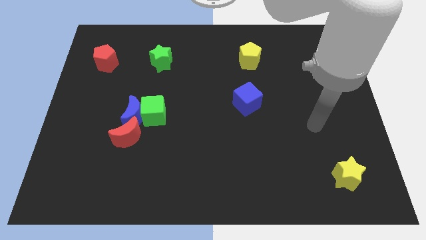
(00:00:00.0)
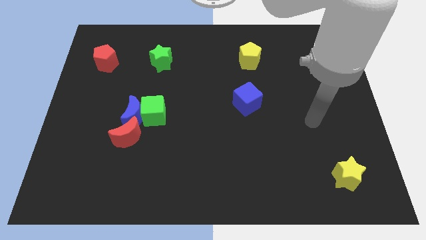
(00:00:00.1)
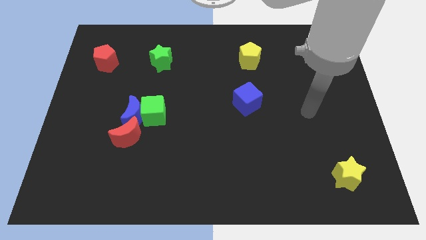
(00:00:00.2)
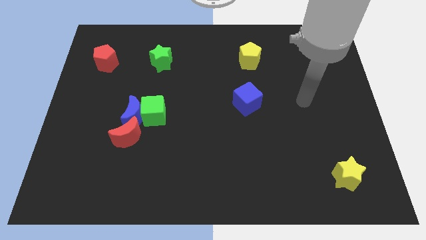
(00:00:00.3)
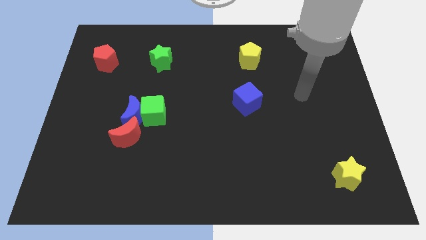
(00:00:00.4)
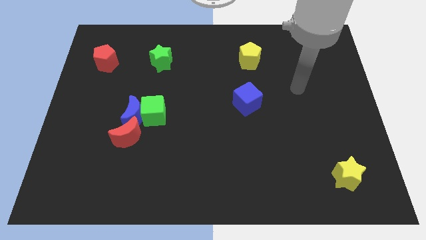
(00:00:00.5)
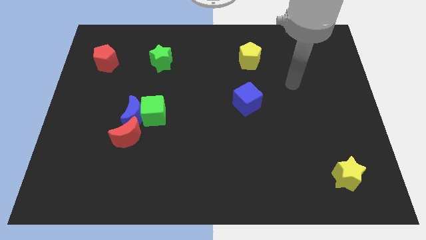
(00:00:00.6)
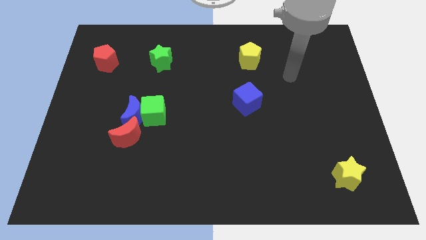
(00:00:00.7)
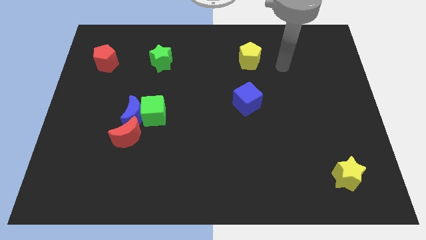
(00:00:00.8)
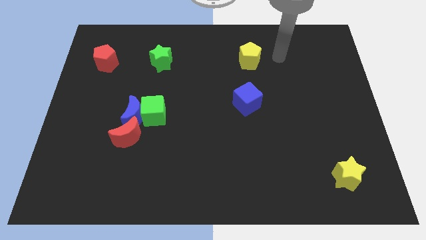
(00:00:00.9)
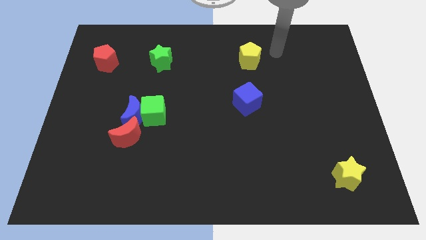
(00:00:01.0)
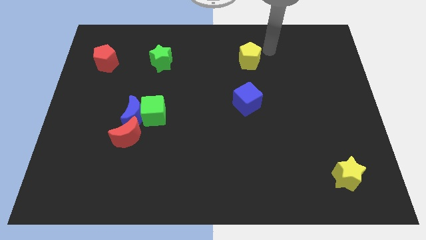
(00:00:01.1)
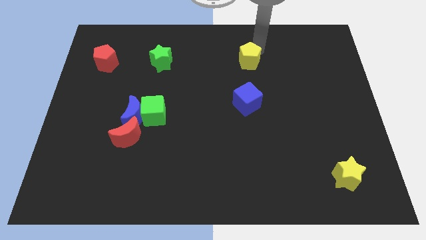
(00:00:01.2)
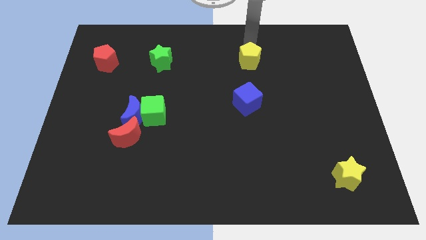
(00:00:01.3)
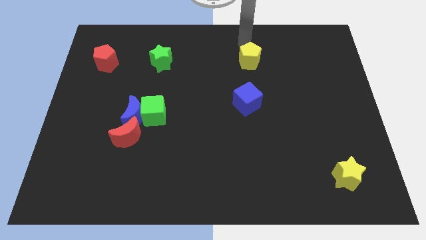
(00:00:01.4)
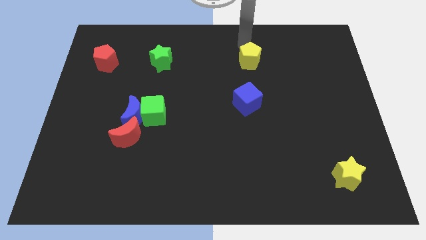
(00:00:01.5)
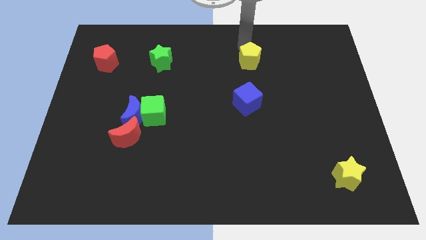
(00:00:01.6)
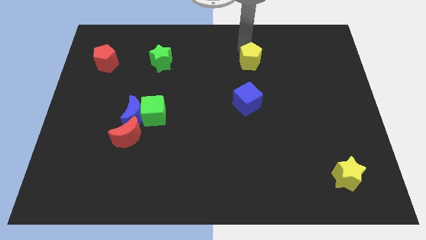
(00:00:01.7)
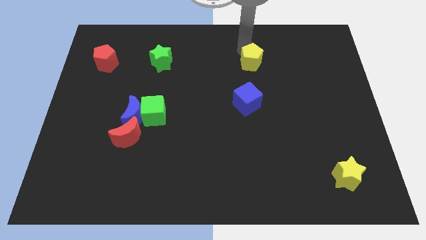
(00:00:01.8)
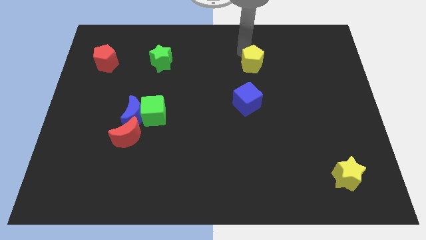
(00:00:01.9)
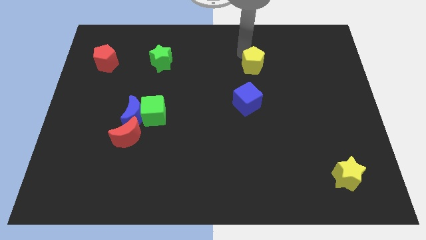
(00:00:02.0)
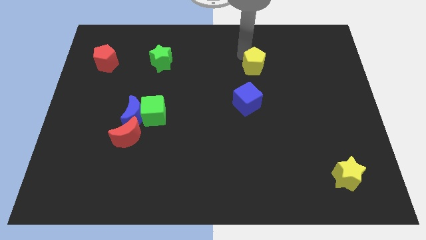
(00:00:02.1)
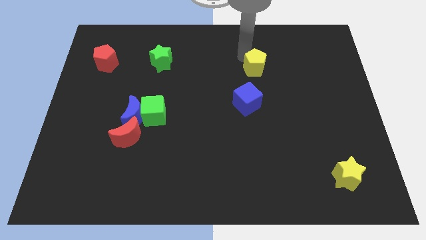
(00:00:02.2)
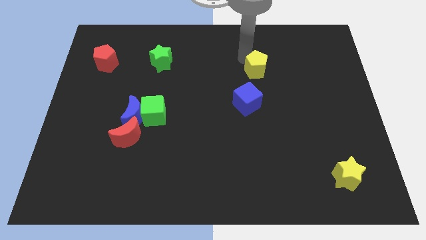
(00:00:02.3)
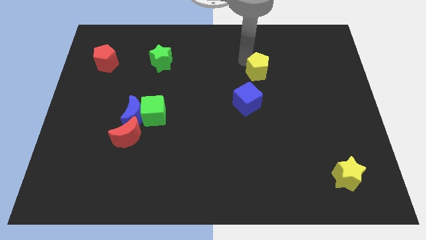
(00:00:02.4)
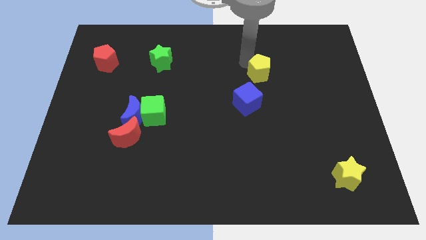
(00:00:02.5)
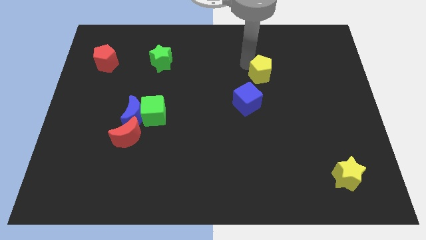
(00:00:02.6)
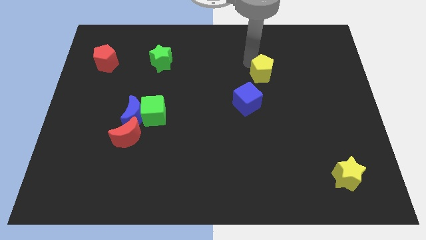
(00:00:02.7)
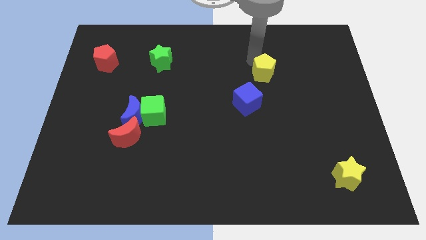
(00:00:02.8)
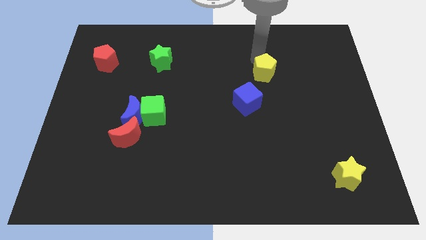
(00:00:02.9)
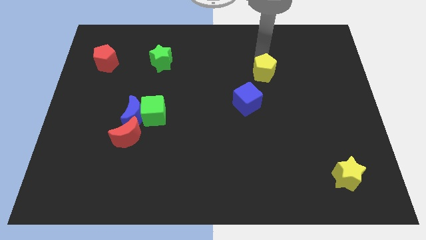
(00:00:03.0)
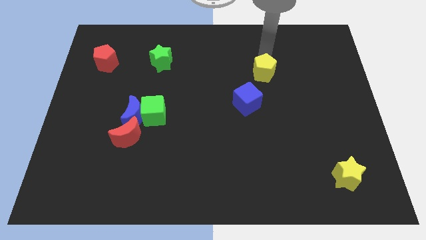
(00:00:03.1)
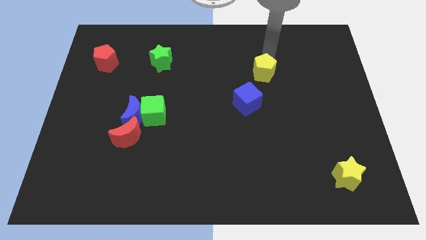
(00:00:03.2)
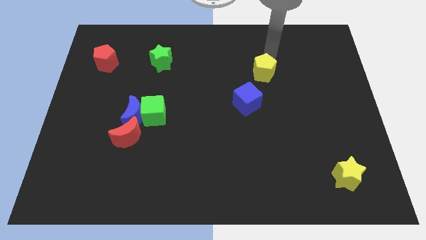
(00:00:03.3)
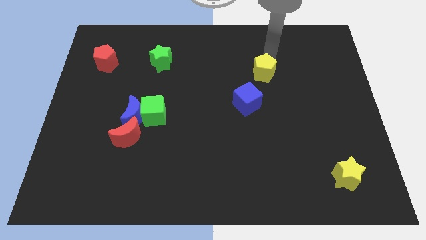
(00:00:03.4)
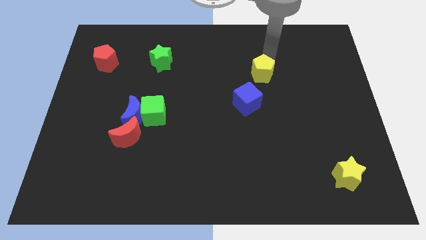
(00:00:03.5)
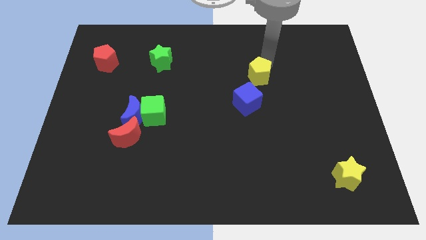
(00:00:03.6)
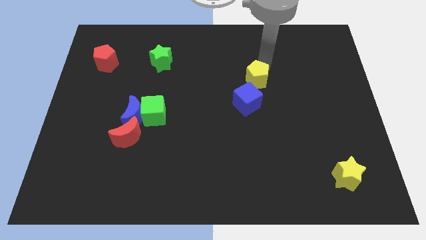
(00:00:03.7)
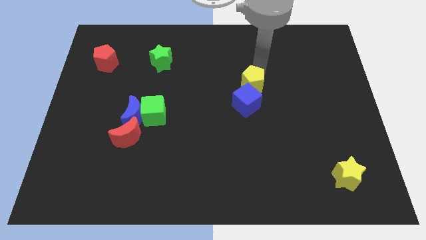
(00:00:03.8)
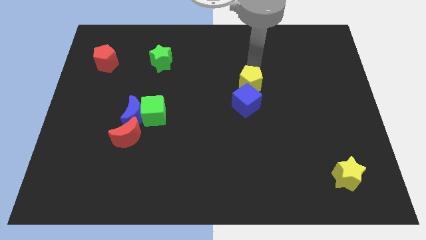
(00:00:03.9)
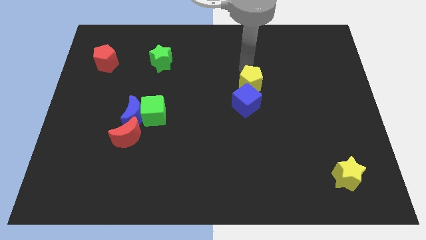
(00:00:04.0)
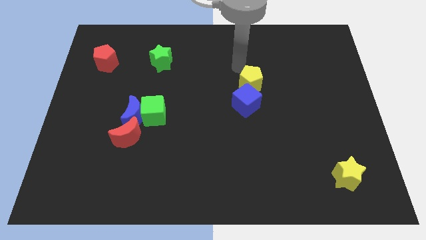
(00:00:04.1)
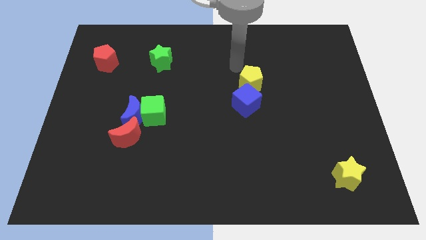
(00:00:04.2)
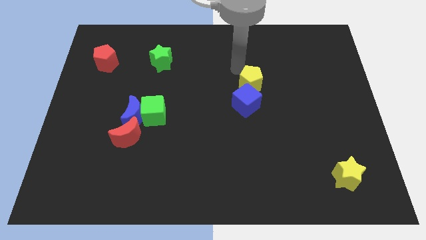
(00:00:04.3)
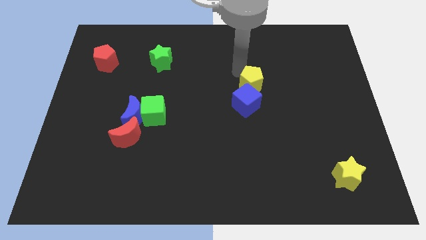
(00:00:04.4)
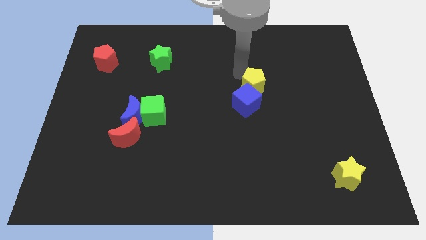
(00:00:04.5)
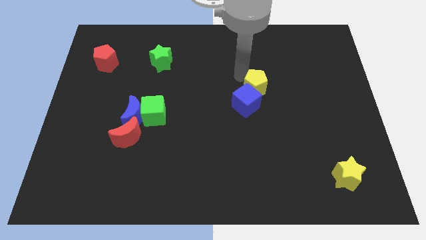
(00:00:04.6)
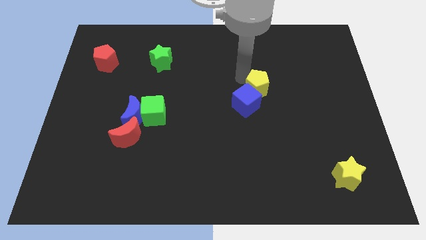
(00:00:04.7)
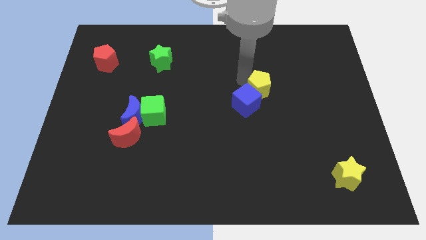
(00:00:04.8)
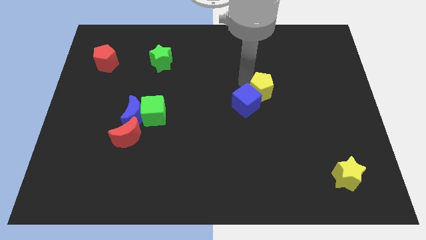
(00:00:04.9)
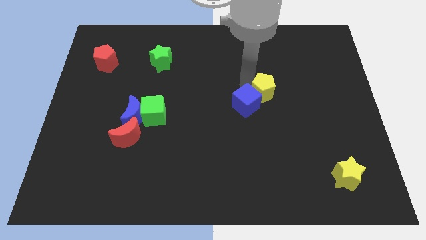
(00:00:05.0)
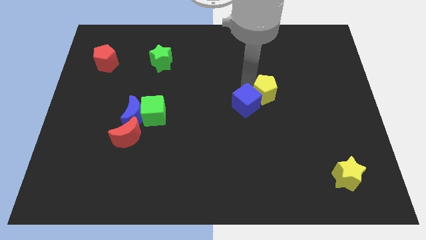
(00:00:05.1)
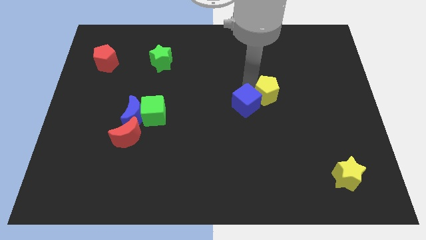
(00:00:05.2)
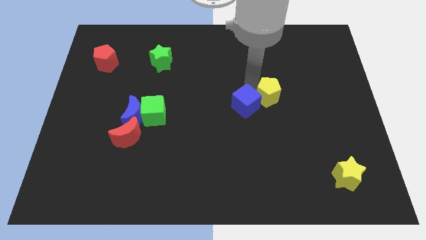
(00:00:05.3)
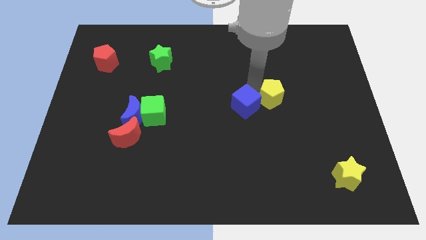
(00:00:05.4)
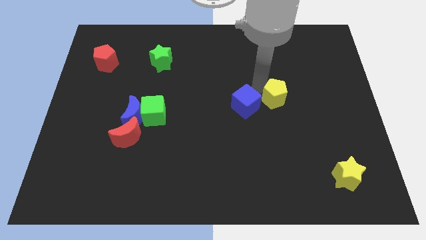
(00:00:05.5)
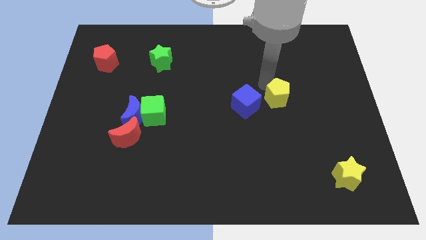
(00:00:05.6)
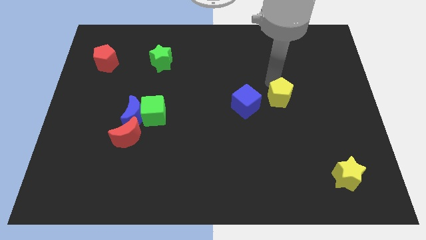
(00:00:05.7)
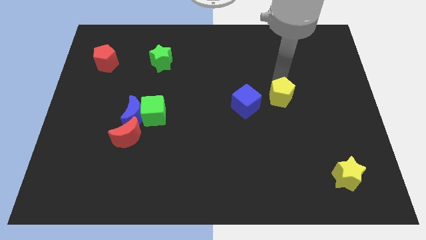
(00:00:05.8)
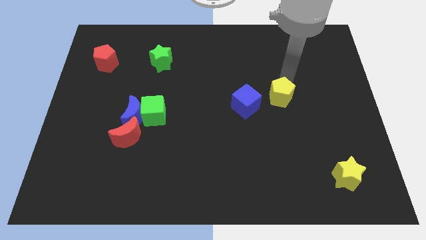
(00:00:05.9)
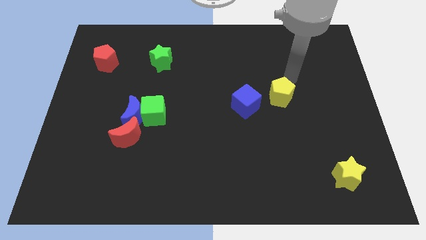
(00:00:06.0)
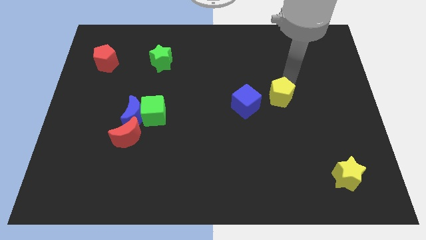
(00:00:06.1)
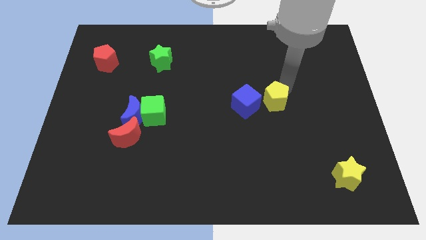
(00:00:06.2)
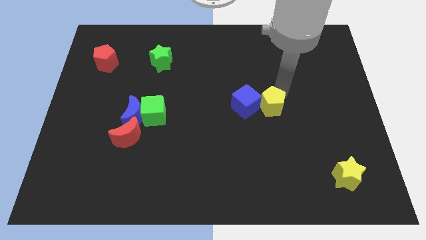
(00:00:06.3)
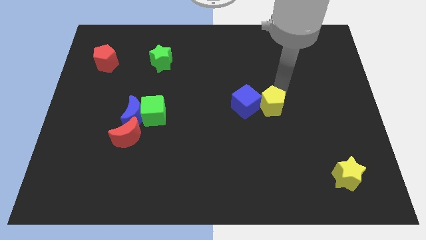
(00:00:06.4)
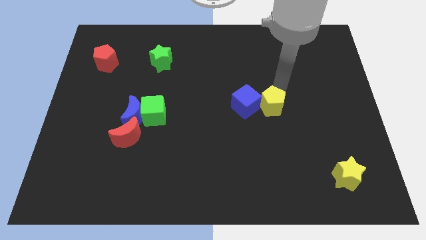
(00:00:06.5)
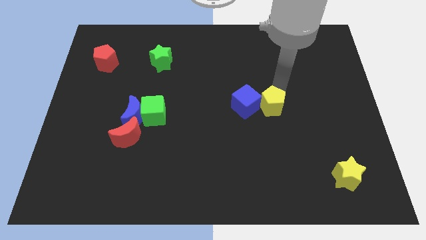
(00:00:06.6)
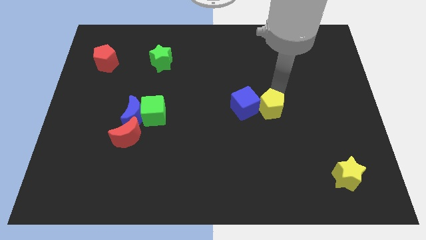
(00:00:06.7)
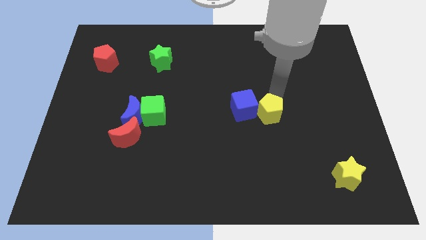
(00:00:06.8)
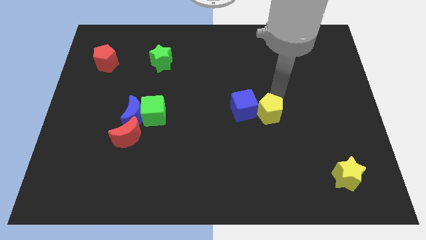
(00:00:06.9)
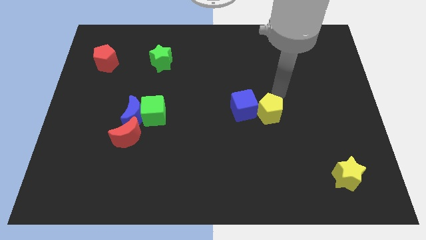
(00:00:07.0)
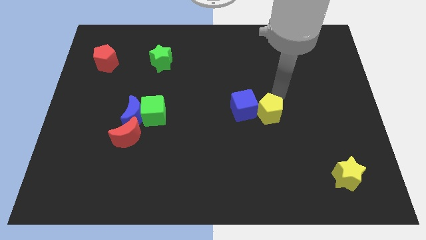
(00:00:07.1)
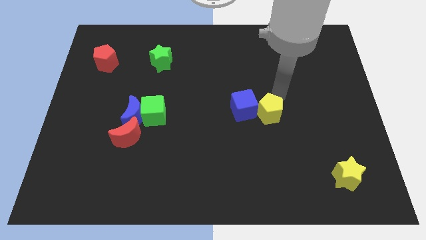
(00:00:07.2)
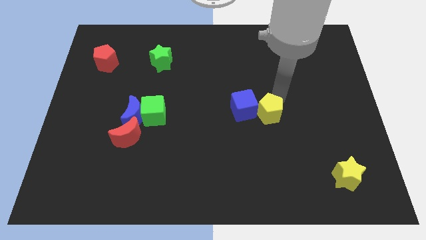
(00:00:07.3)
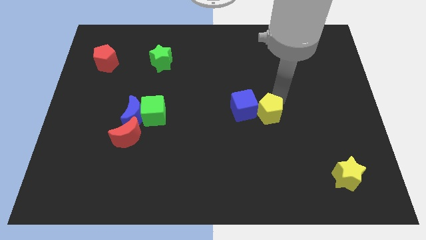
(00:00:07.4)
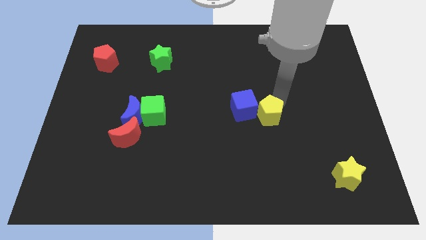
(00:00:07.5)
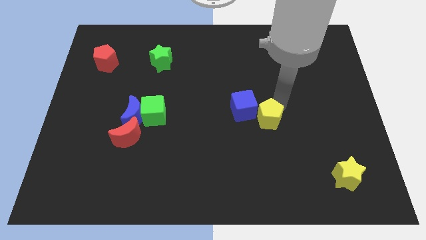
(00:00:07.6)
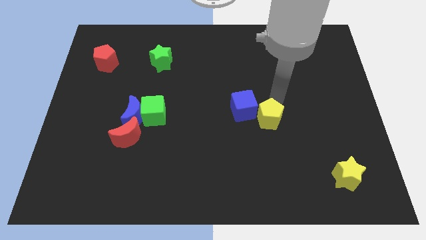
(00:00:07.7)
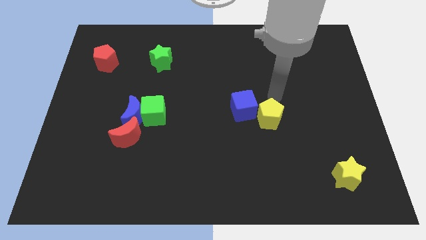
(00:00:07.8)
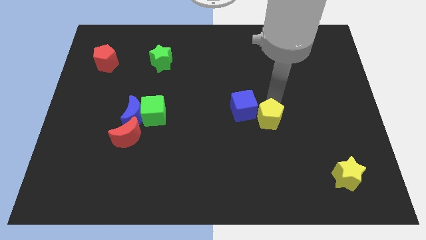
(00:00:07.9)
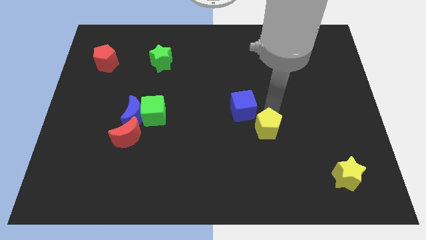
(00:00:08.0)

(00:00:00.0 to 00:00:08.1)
move the yellow pentagon down
